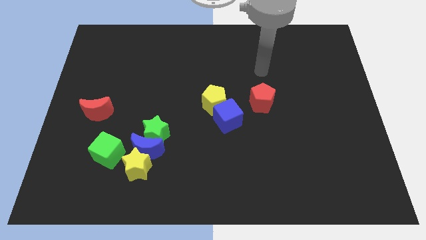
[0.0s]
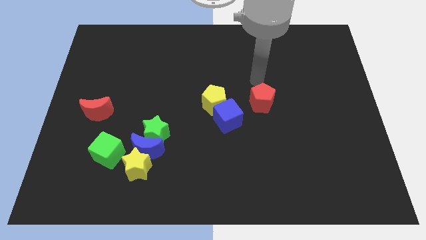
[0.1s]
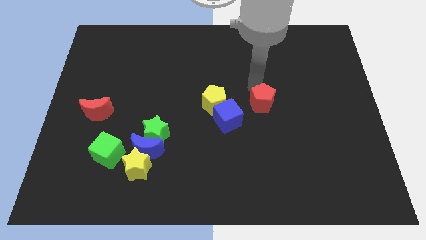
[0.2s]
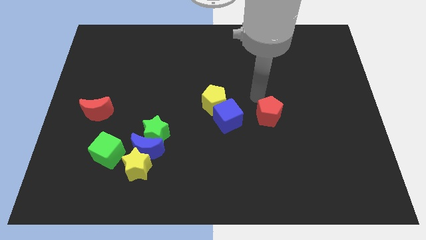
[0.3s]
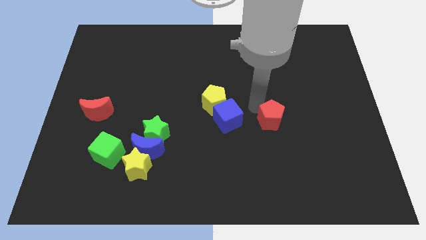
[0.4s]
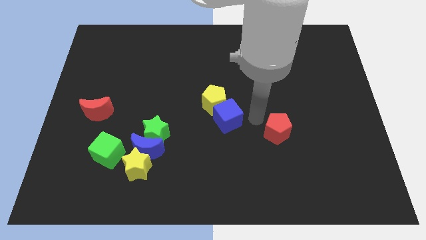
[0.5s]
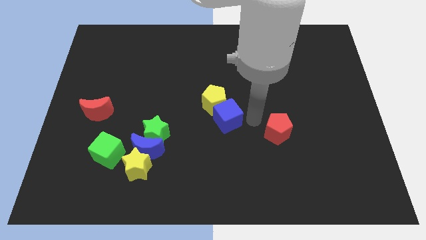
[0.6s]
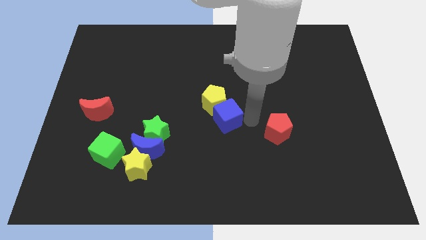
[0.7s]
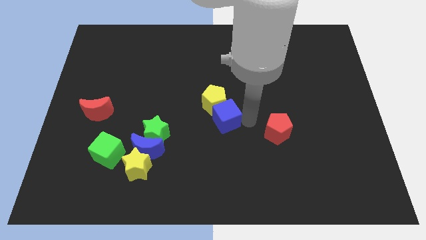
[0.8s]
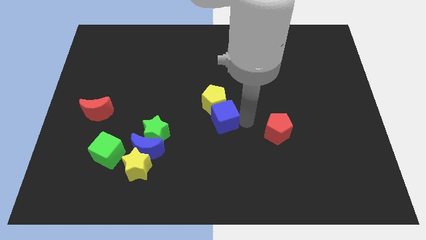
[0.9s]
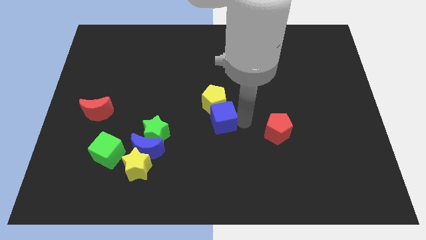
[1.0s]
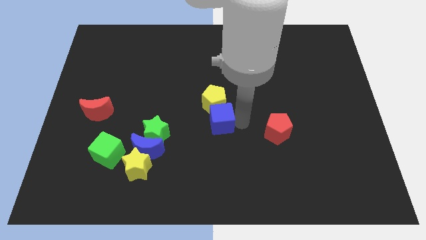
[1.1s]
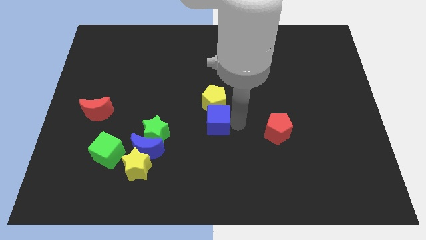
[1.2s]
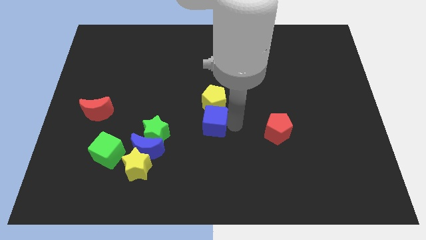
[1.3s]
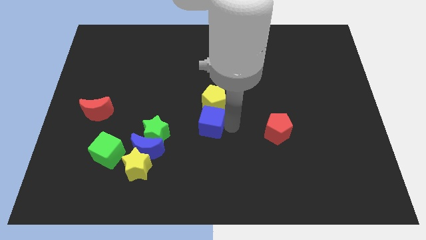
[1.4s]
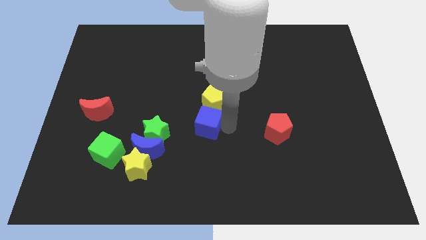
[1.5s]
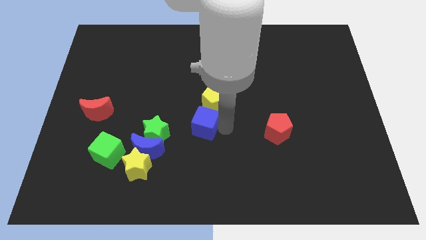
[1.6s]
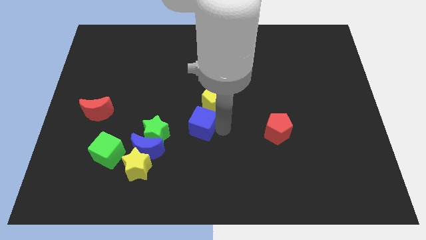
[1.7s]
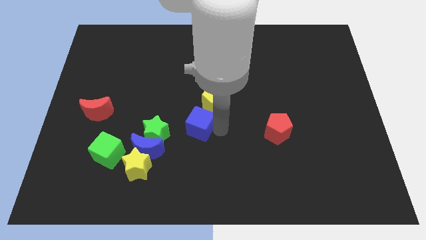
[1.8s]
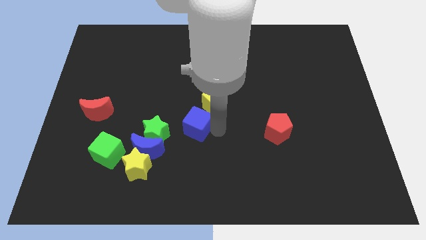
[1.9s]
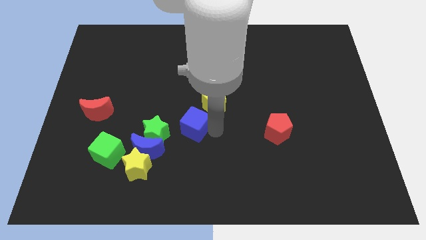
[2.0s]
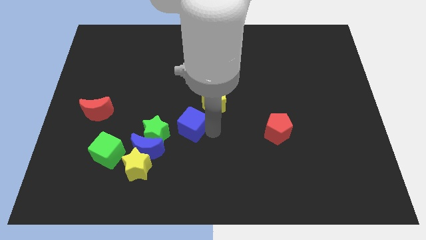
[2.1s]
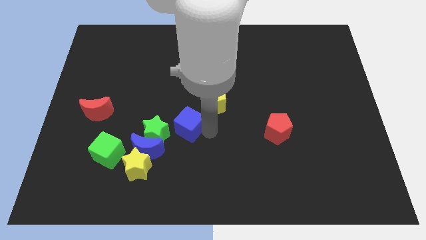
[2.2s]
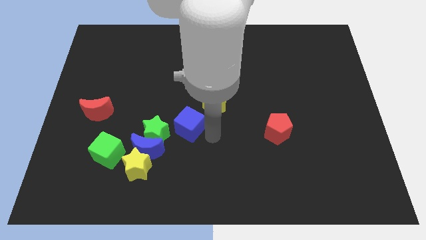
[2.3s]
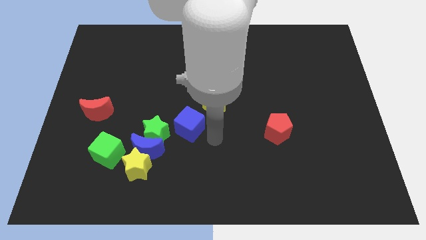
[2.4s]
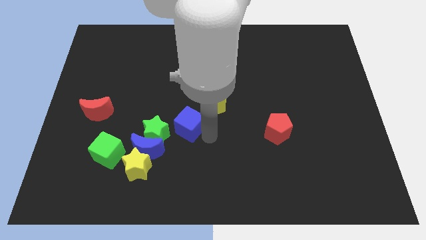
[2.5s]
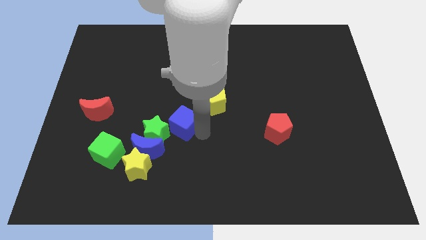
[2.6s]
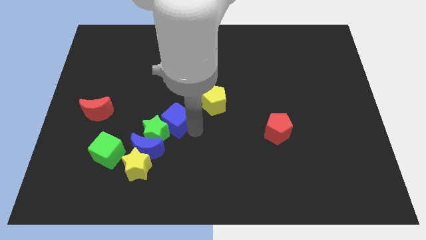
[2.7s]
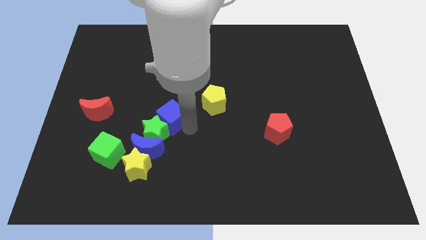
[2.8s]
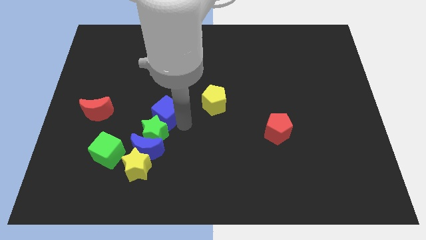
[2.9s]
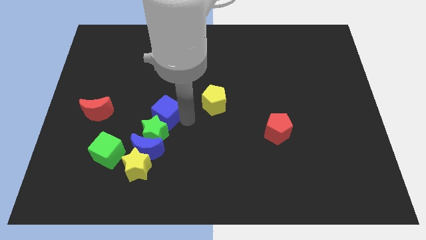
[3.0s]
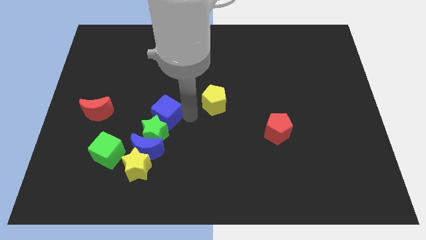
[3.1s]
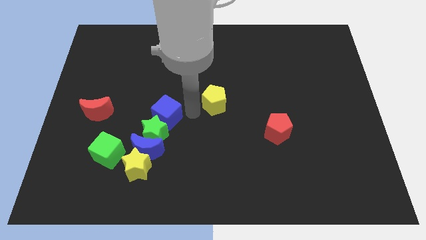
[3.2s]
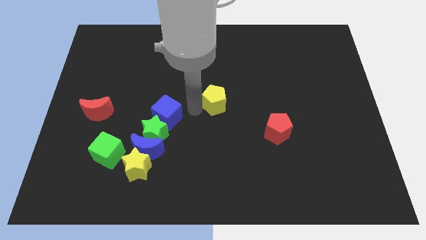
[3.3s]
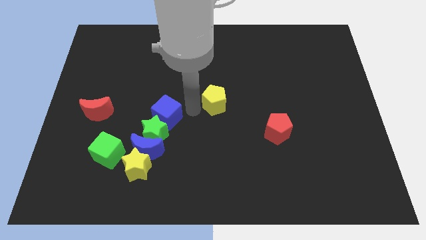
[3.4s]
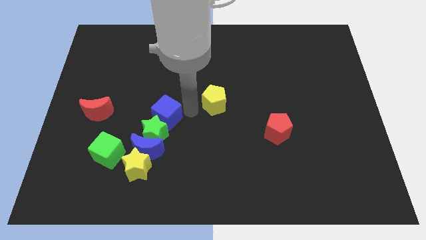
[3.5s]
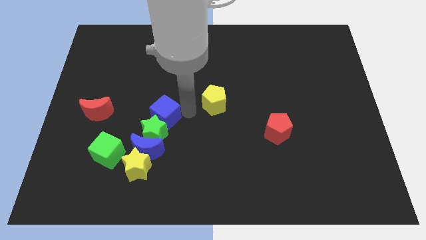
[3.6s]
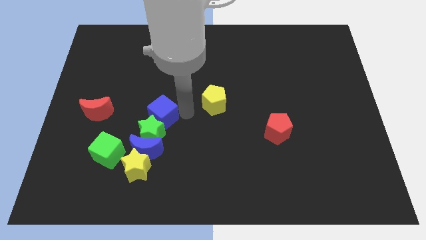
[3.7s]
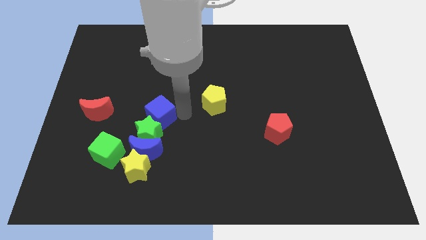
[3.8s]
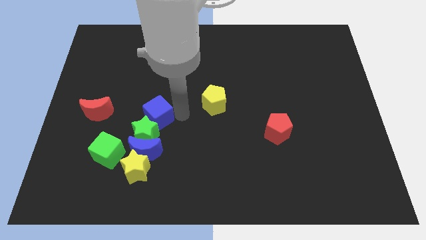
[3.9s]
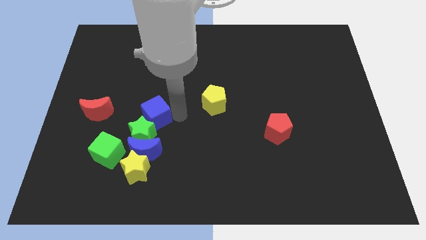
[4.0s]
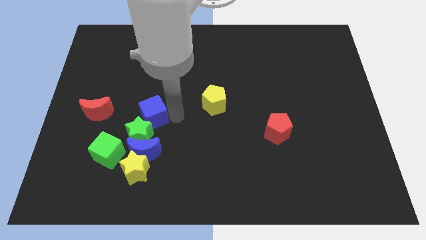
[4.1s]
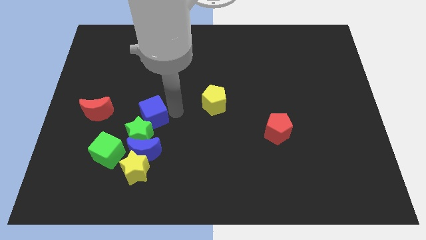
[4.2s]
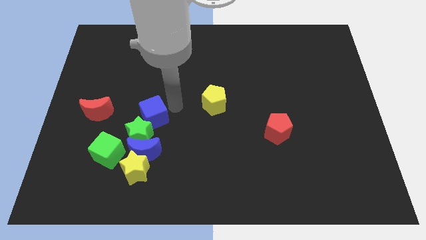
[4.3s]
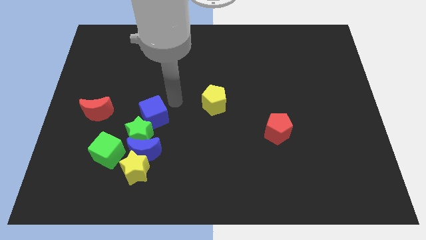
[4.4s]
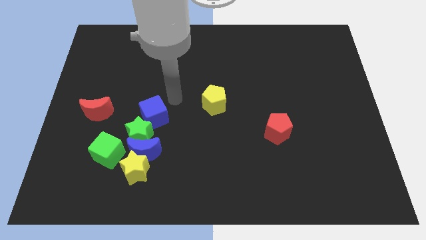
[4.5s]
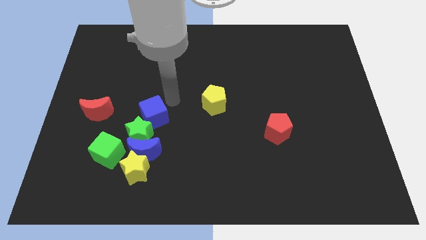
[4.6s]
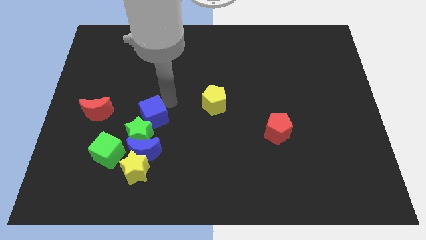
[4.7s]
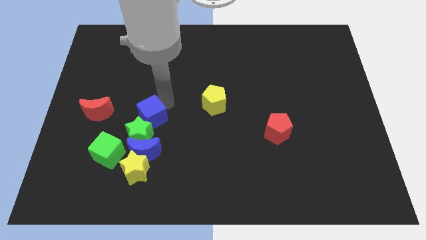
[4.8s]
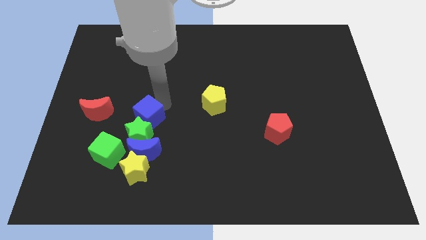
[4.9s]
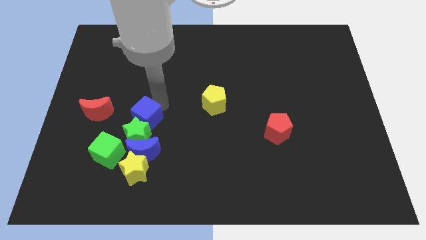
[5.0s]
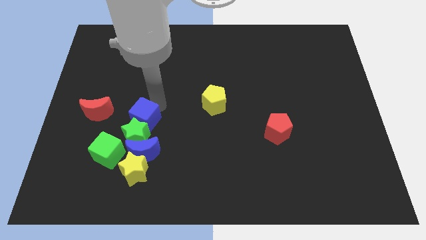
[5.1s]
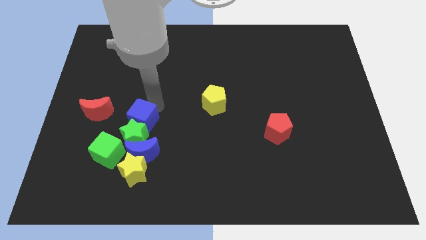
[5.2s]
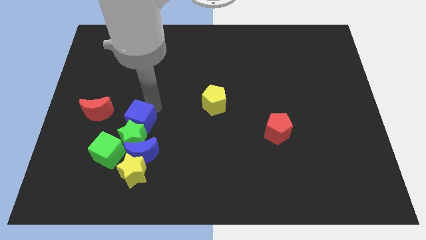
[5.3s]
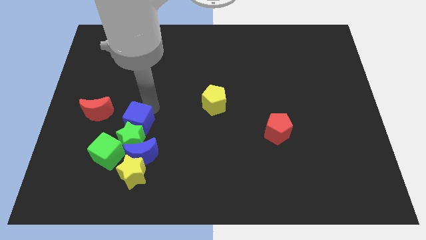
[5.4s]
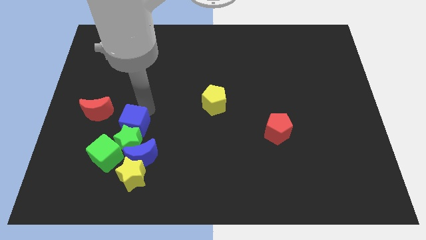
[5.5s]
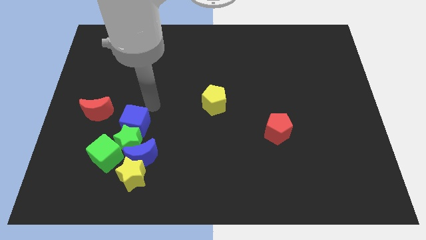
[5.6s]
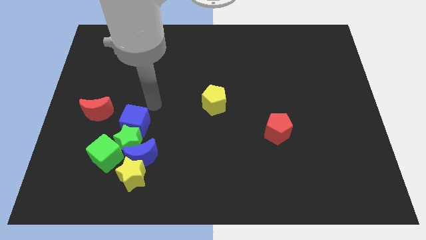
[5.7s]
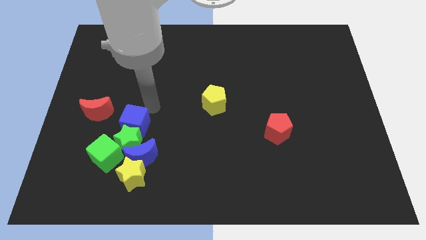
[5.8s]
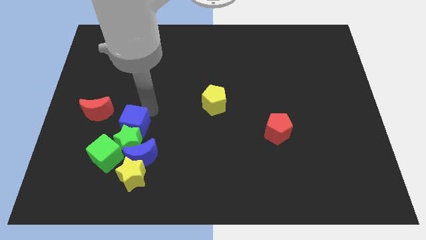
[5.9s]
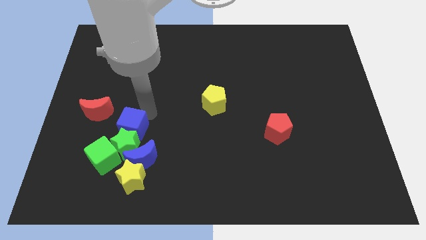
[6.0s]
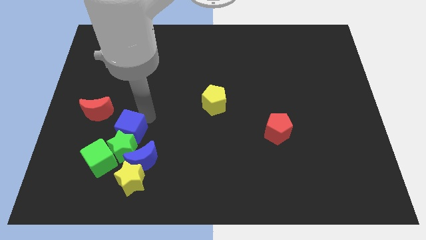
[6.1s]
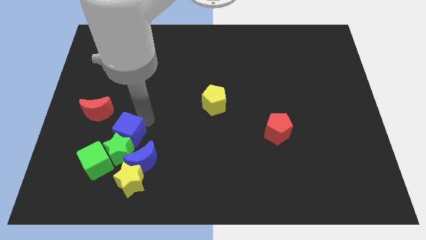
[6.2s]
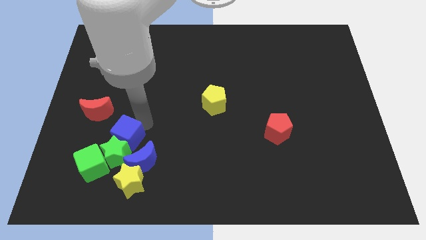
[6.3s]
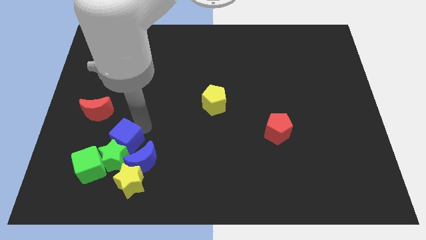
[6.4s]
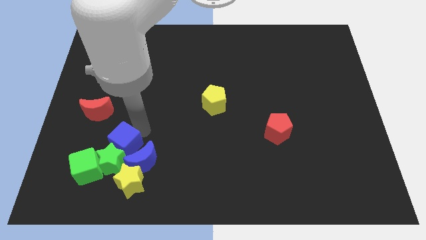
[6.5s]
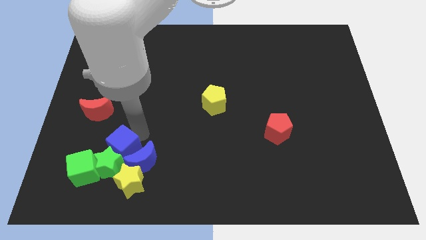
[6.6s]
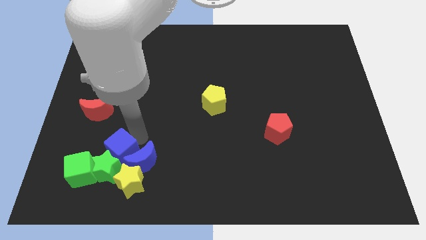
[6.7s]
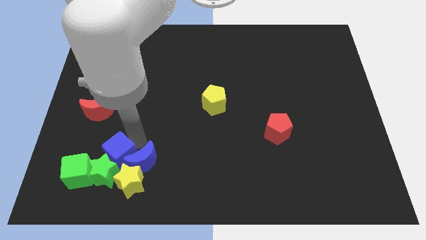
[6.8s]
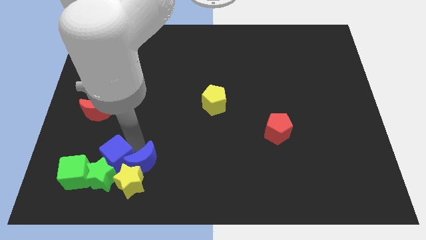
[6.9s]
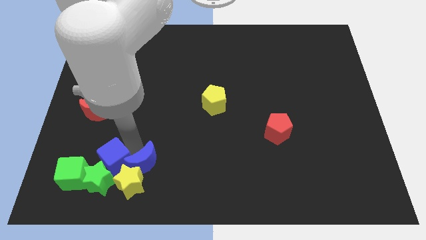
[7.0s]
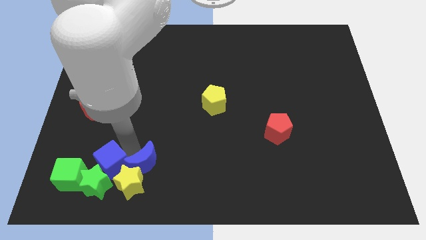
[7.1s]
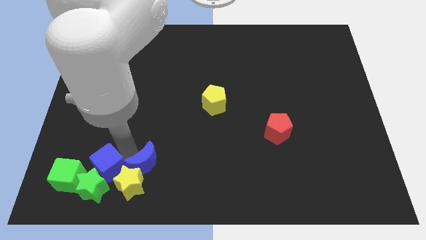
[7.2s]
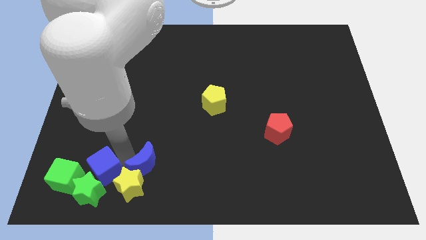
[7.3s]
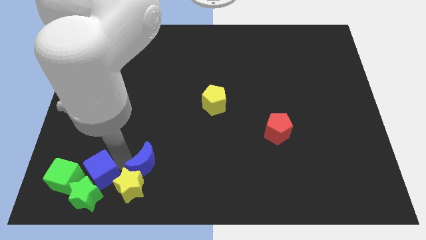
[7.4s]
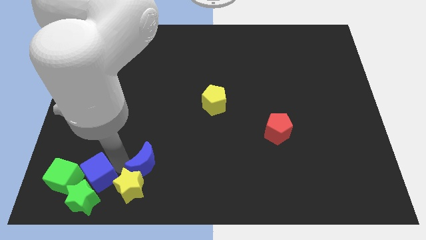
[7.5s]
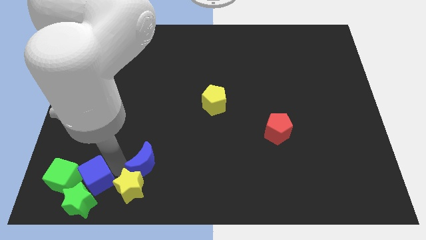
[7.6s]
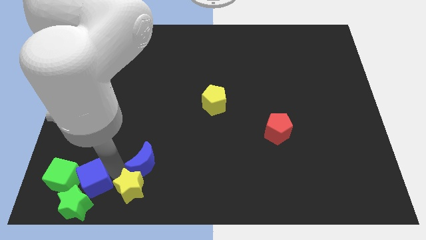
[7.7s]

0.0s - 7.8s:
push the blue cube towards the green cube
